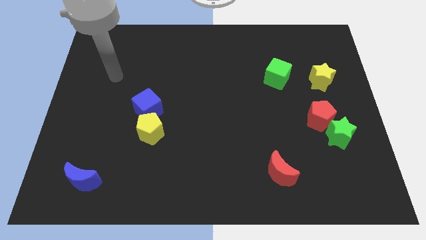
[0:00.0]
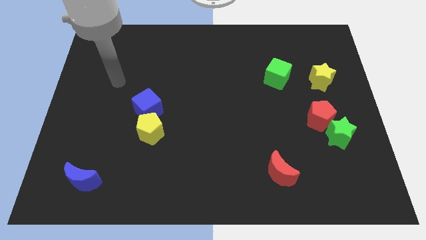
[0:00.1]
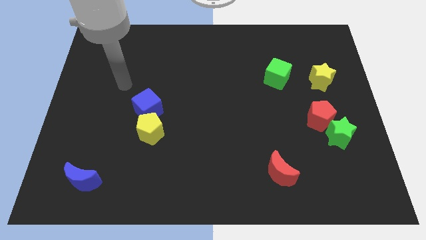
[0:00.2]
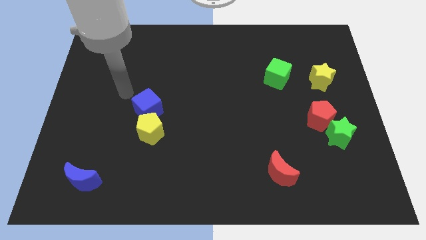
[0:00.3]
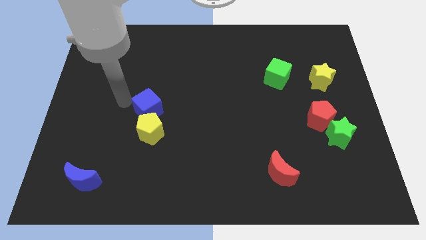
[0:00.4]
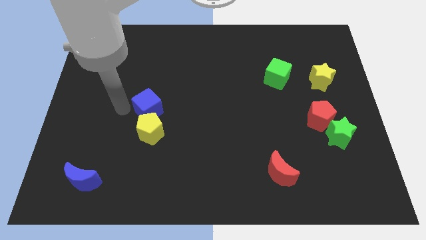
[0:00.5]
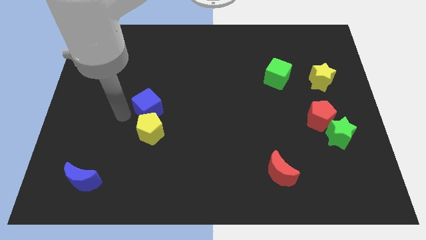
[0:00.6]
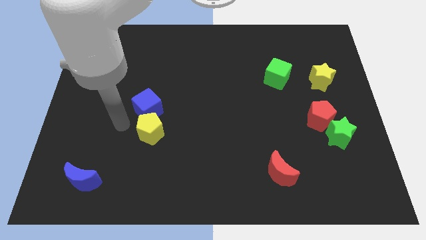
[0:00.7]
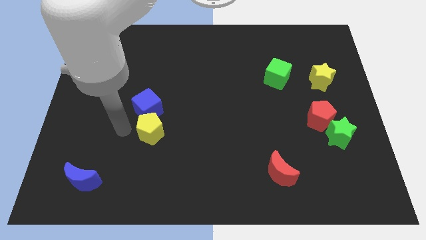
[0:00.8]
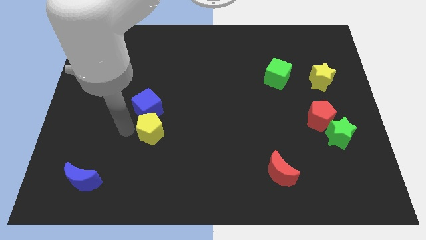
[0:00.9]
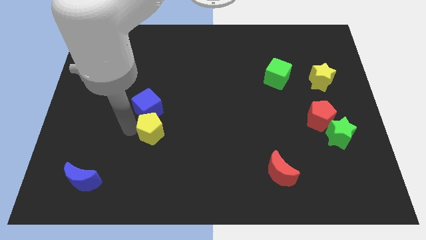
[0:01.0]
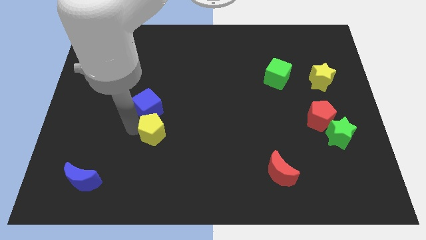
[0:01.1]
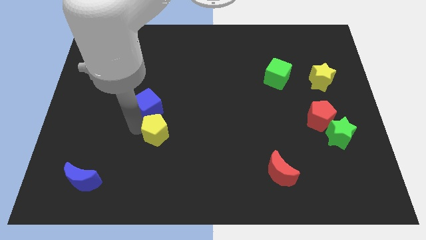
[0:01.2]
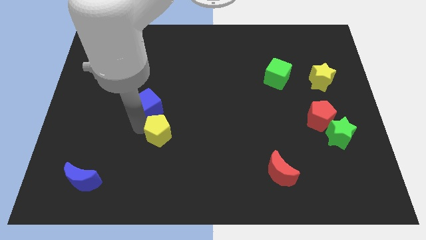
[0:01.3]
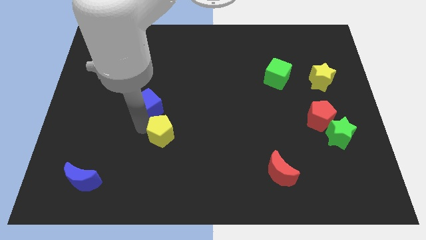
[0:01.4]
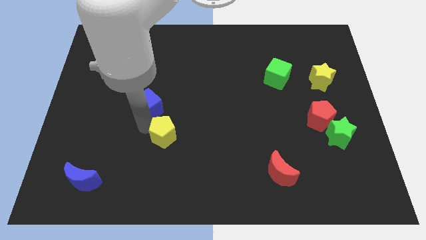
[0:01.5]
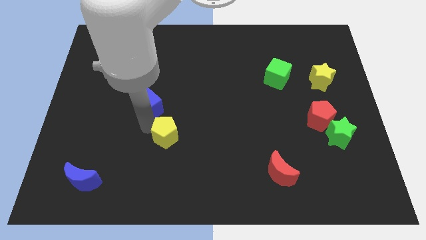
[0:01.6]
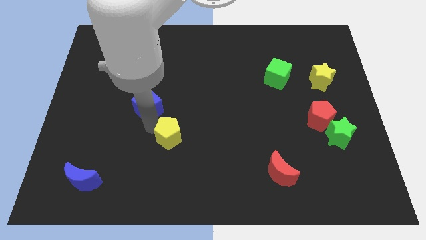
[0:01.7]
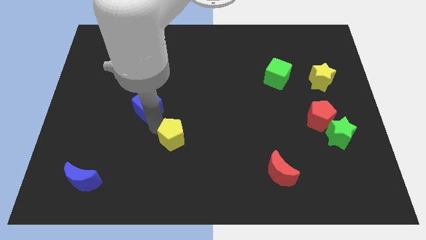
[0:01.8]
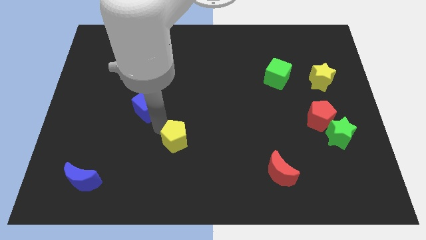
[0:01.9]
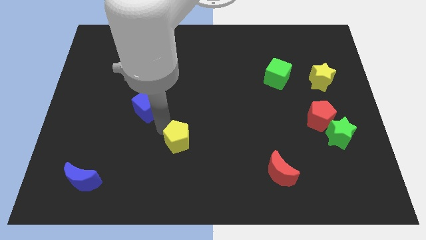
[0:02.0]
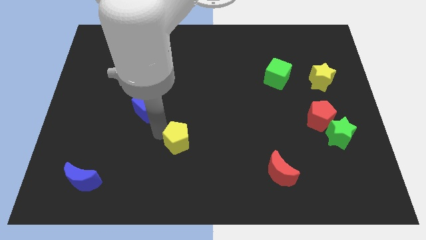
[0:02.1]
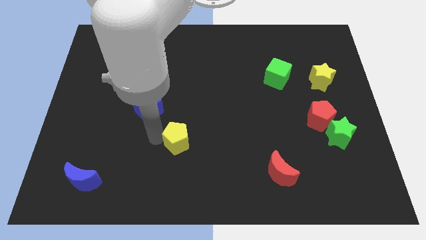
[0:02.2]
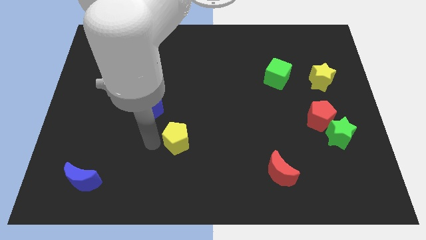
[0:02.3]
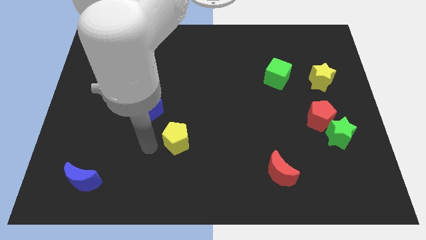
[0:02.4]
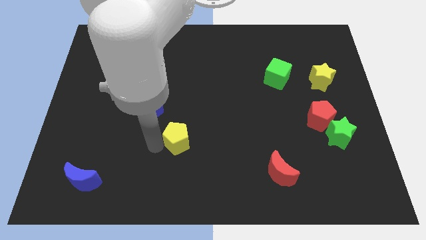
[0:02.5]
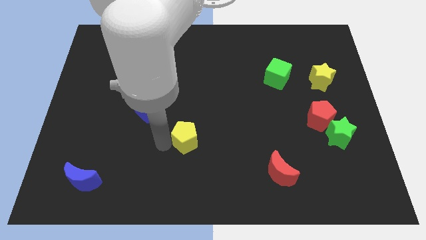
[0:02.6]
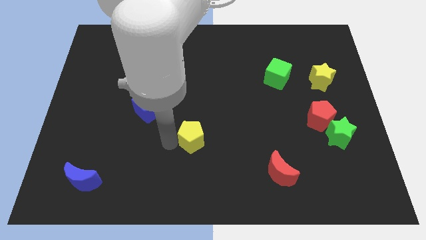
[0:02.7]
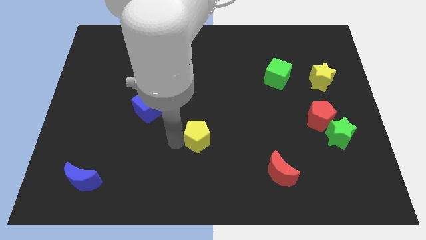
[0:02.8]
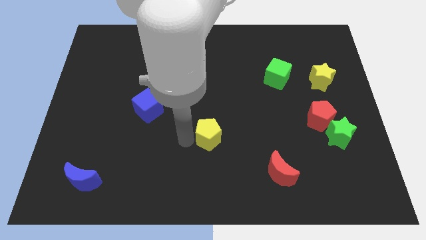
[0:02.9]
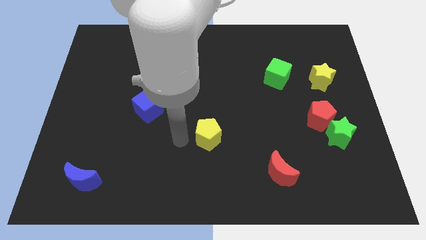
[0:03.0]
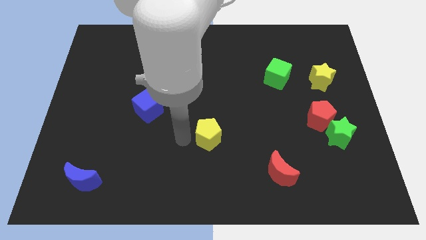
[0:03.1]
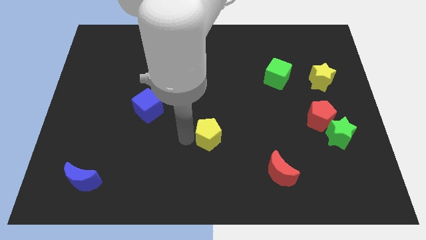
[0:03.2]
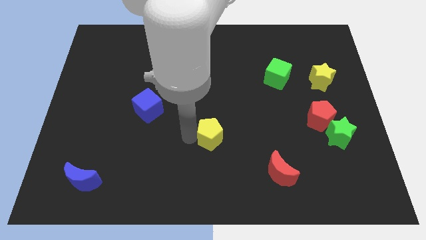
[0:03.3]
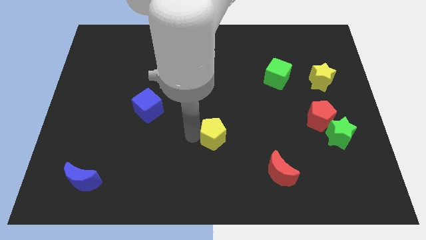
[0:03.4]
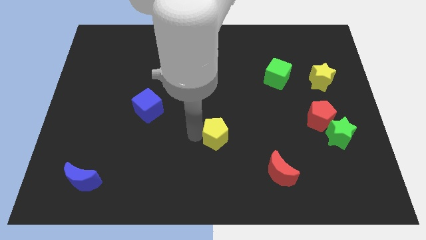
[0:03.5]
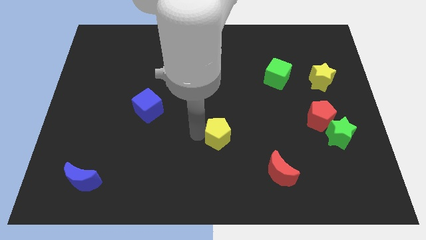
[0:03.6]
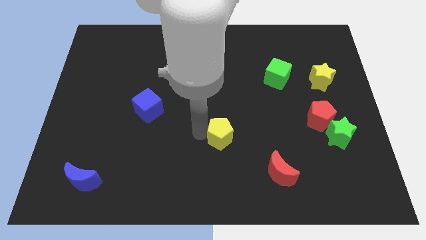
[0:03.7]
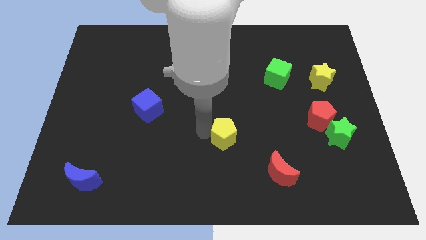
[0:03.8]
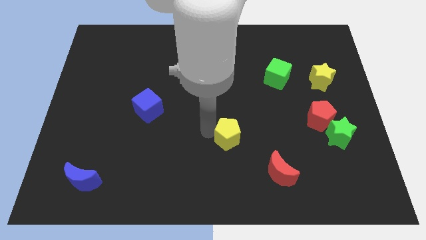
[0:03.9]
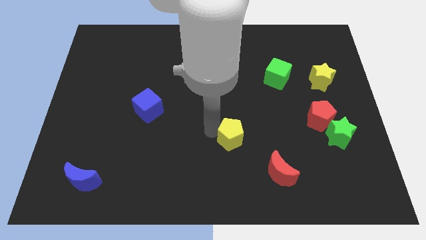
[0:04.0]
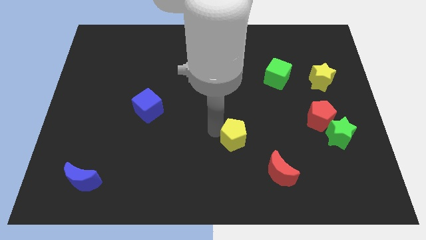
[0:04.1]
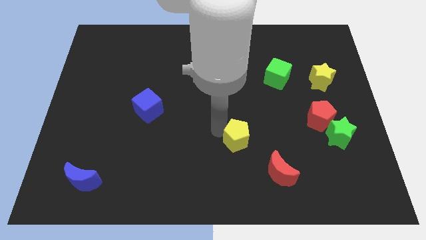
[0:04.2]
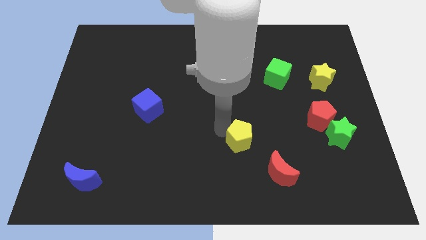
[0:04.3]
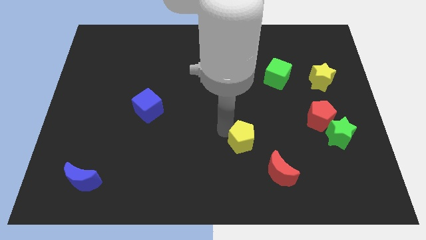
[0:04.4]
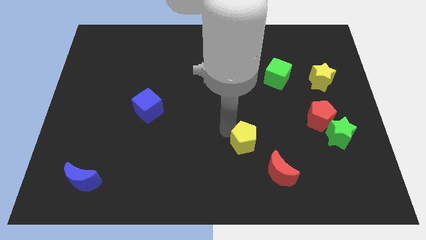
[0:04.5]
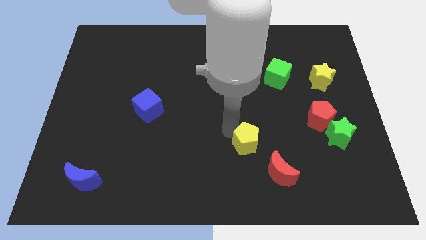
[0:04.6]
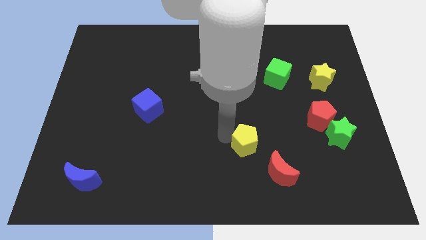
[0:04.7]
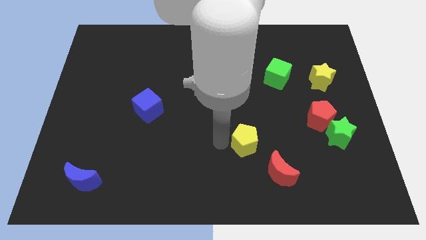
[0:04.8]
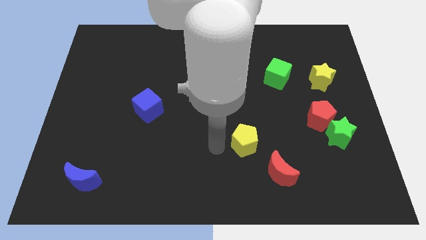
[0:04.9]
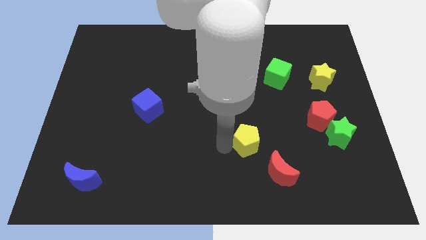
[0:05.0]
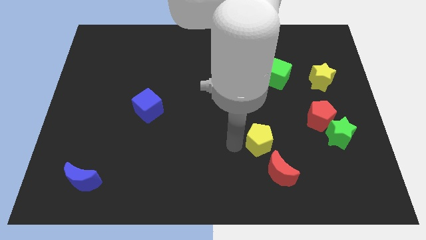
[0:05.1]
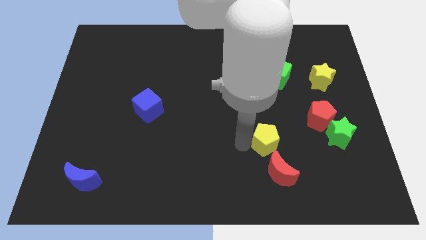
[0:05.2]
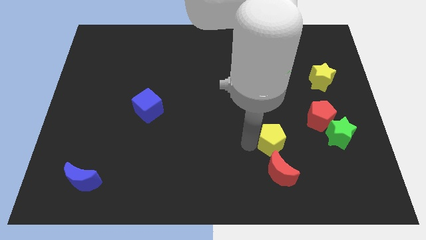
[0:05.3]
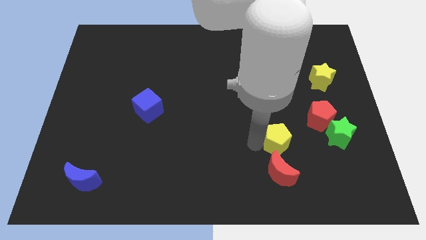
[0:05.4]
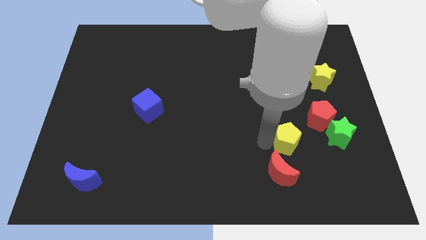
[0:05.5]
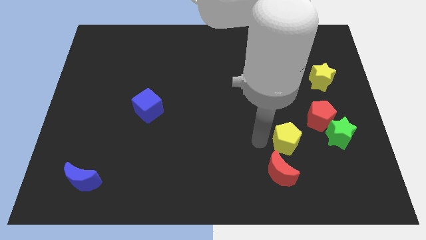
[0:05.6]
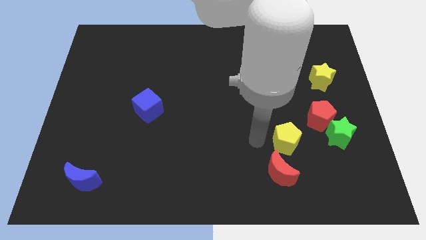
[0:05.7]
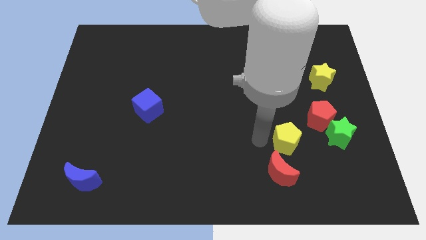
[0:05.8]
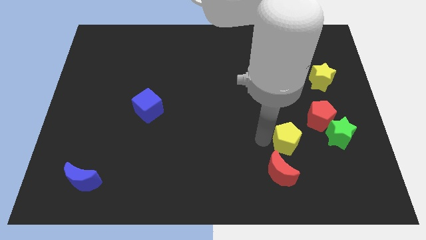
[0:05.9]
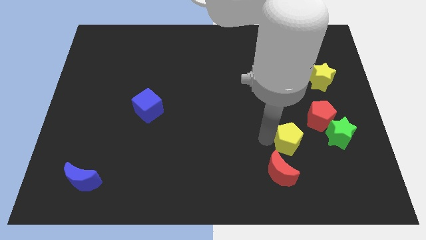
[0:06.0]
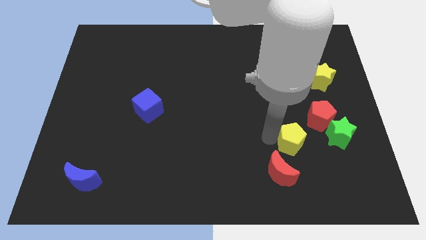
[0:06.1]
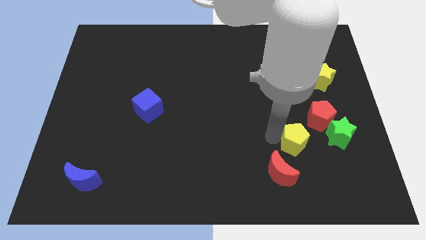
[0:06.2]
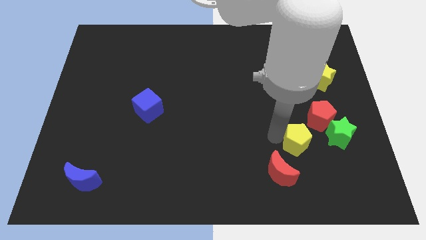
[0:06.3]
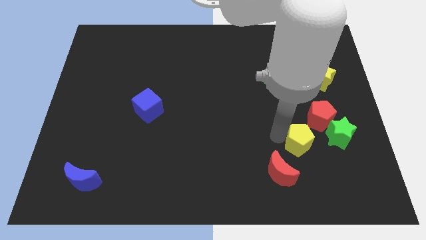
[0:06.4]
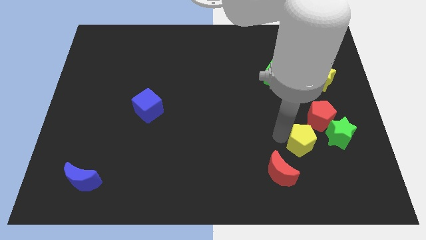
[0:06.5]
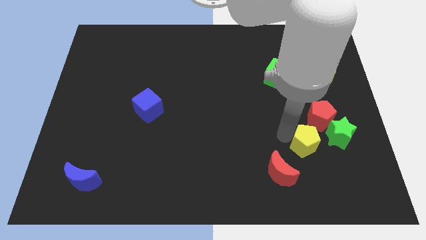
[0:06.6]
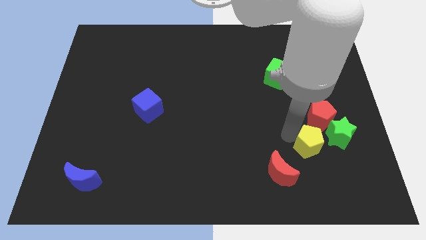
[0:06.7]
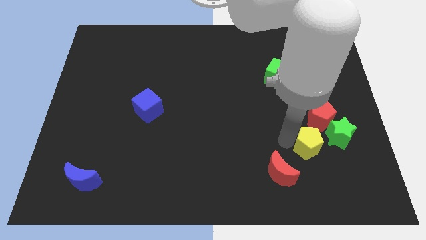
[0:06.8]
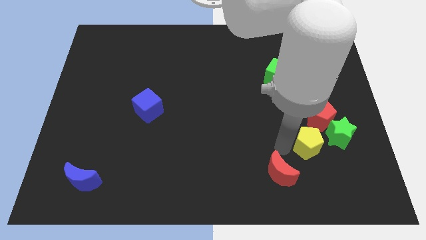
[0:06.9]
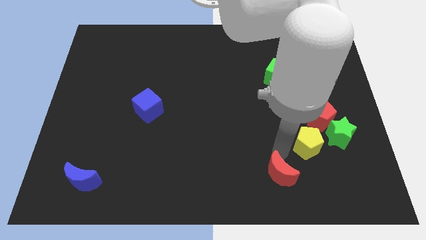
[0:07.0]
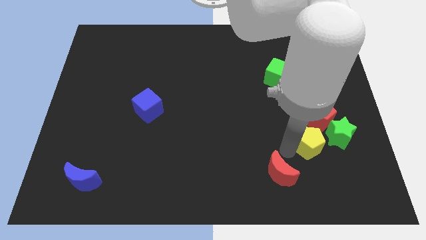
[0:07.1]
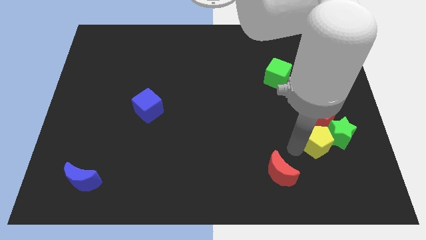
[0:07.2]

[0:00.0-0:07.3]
put the yellow pentagon towards the green star

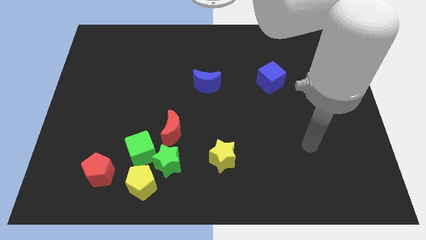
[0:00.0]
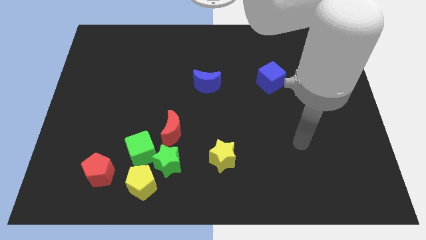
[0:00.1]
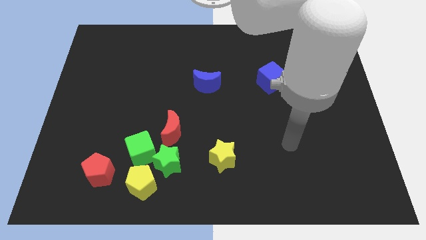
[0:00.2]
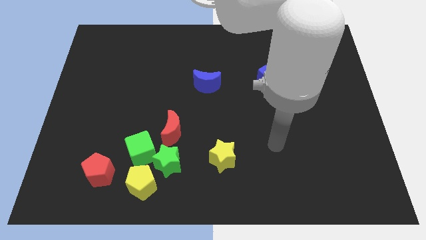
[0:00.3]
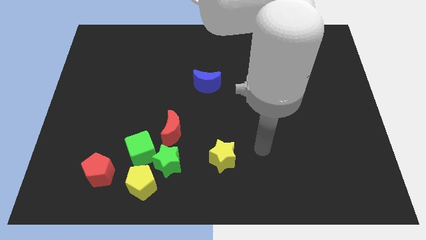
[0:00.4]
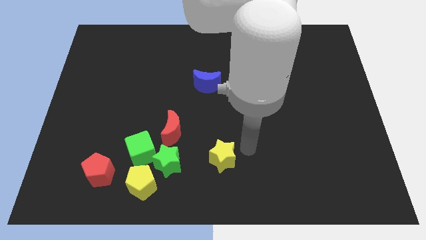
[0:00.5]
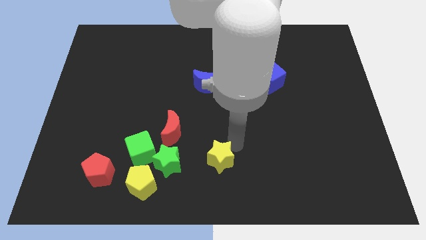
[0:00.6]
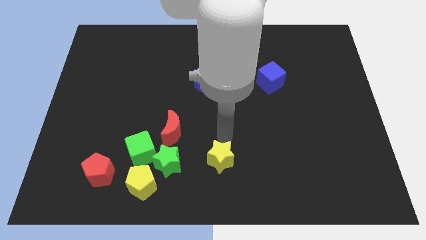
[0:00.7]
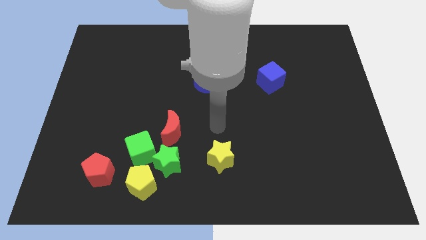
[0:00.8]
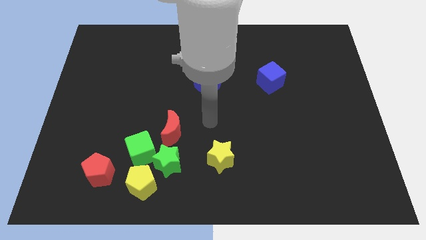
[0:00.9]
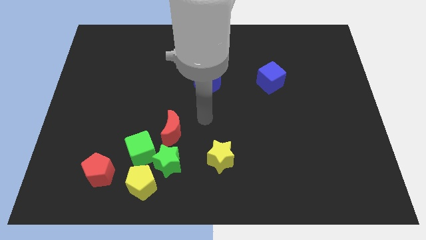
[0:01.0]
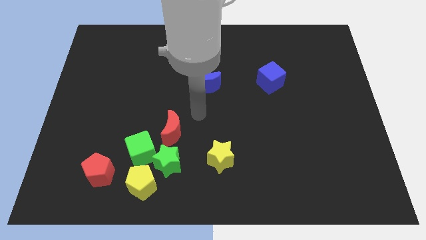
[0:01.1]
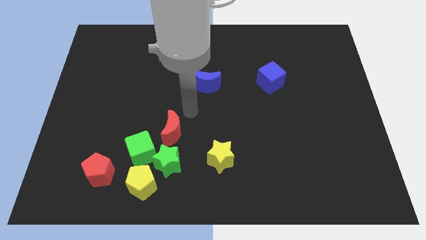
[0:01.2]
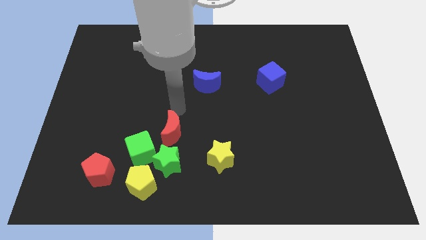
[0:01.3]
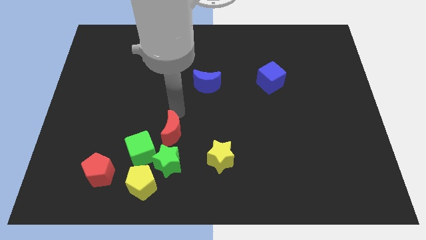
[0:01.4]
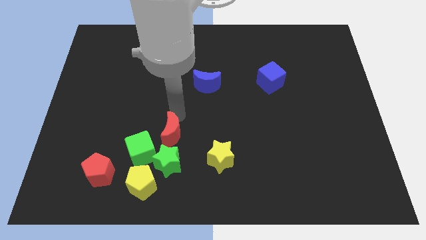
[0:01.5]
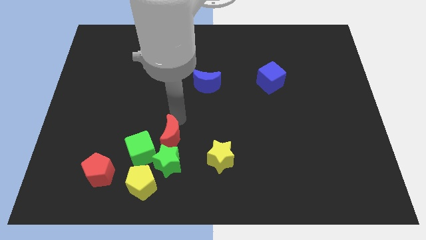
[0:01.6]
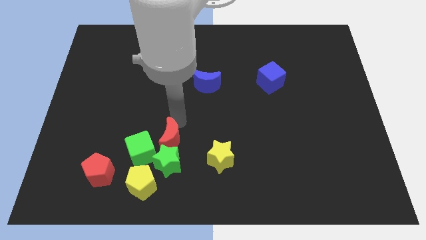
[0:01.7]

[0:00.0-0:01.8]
put the red moon next to the green star
